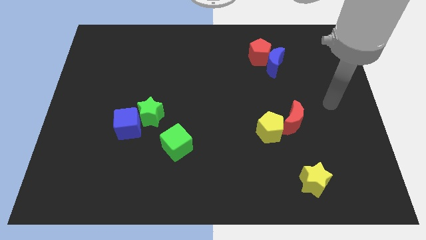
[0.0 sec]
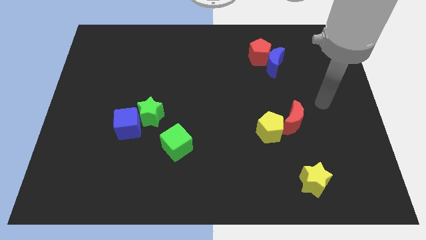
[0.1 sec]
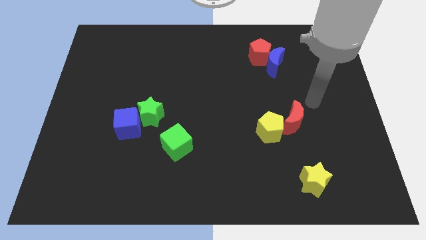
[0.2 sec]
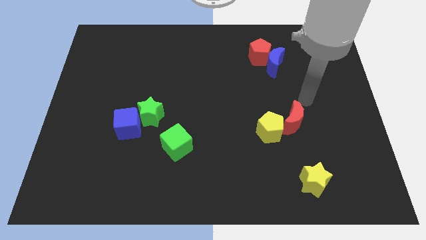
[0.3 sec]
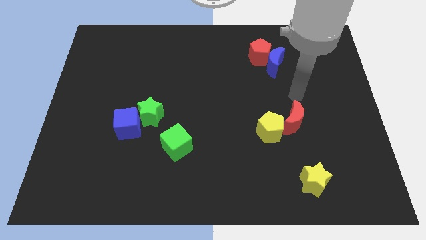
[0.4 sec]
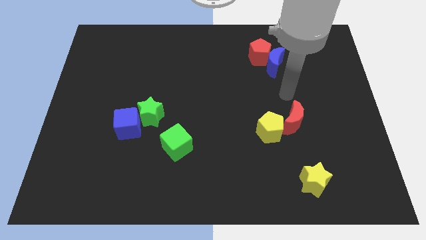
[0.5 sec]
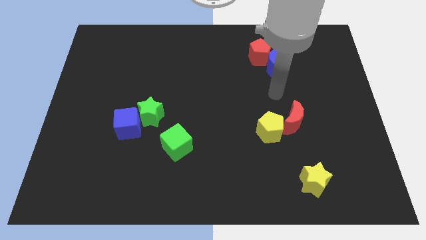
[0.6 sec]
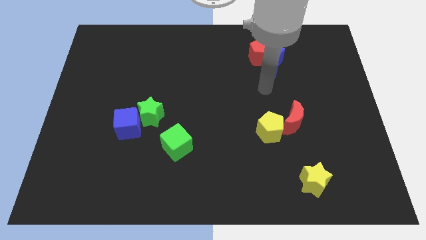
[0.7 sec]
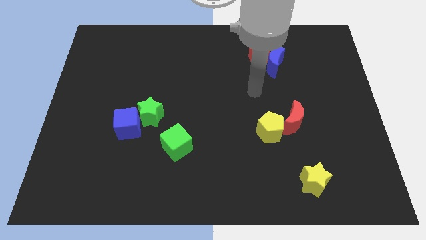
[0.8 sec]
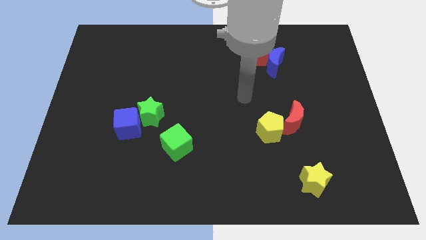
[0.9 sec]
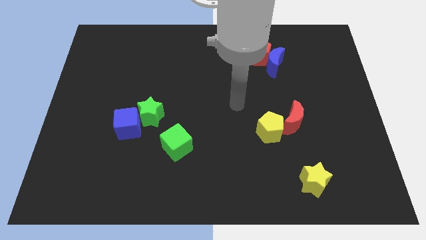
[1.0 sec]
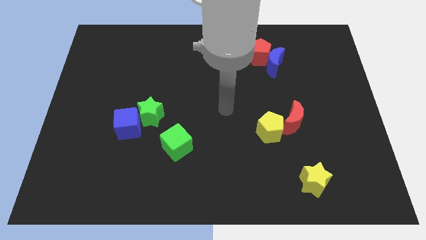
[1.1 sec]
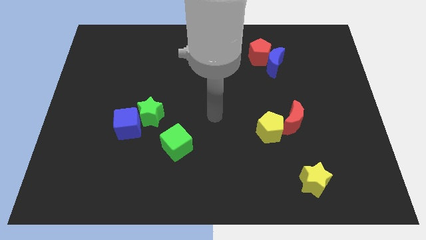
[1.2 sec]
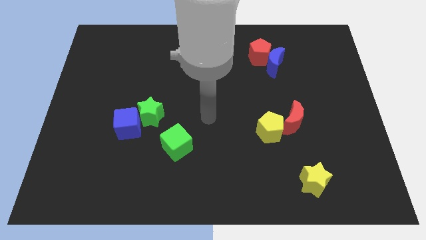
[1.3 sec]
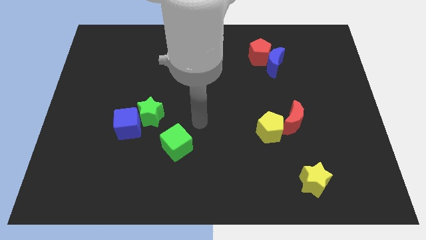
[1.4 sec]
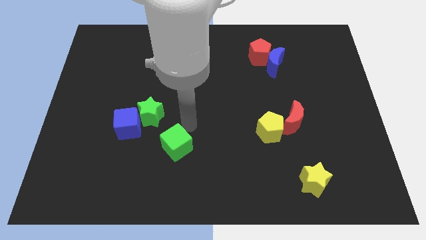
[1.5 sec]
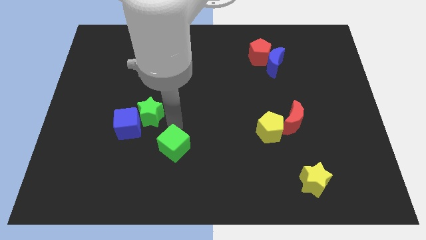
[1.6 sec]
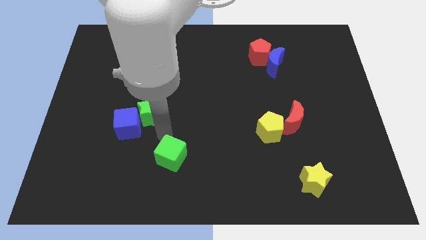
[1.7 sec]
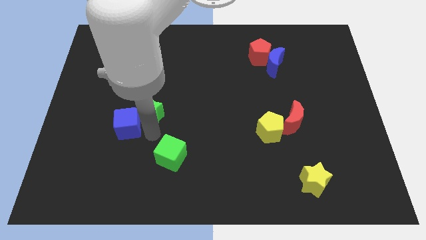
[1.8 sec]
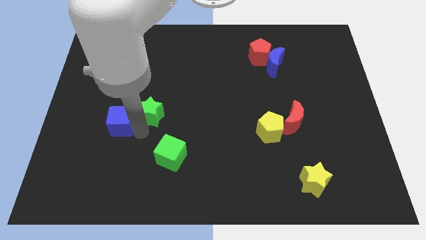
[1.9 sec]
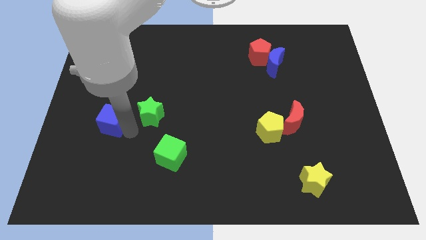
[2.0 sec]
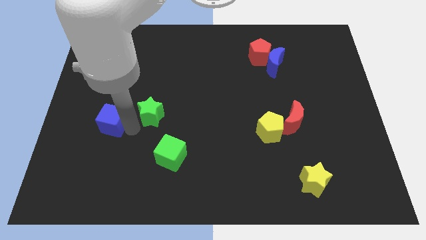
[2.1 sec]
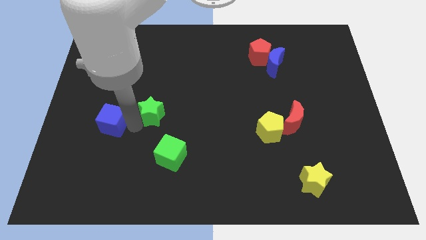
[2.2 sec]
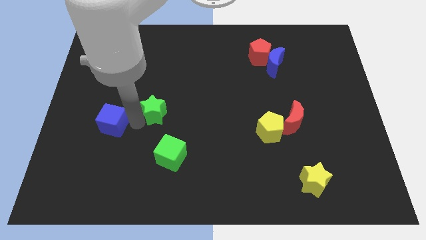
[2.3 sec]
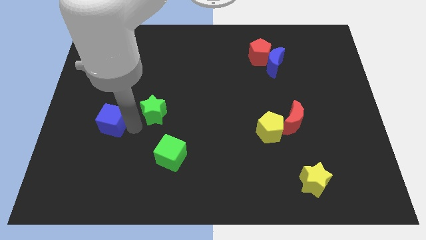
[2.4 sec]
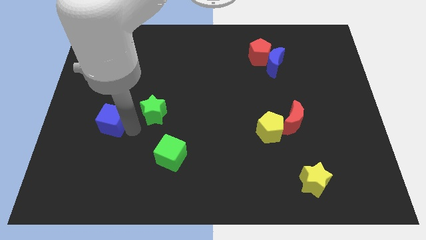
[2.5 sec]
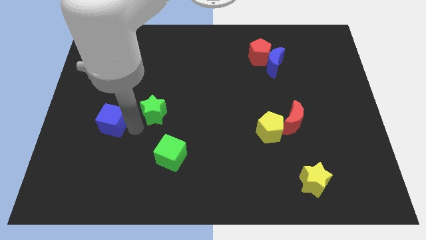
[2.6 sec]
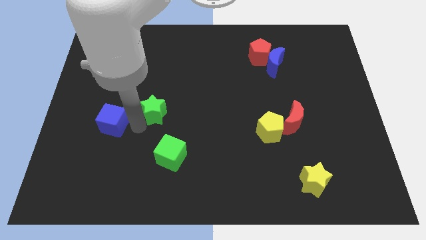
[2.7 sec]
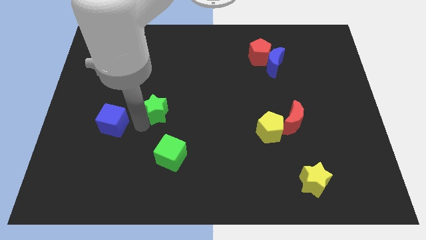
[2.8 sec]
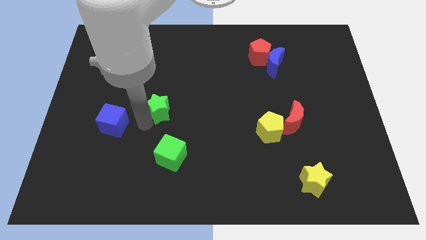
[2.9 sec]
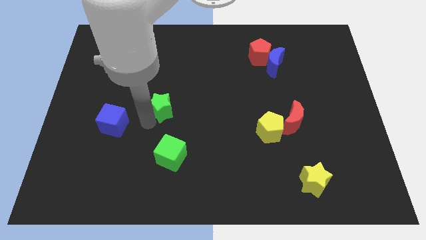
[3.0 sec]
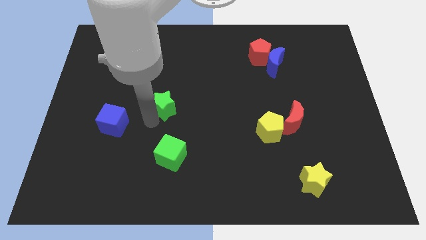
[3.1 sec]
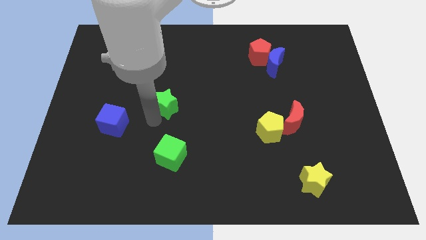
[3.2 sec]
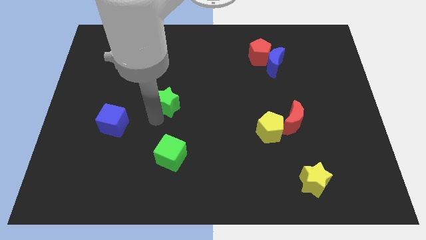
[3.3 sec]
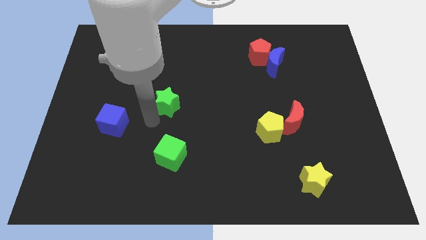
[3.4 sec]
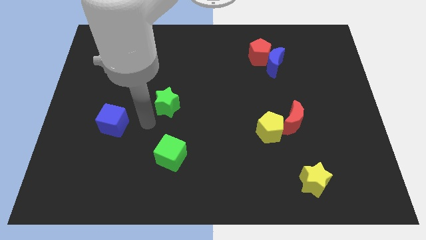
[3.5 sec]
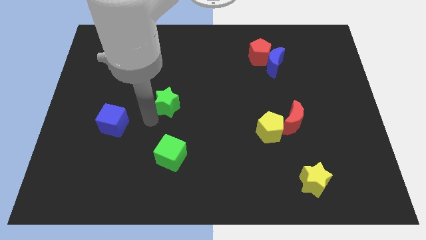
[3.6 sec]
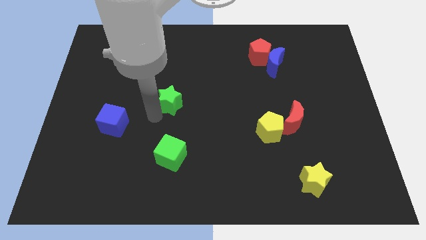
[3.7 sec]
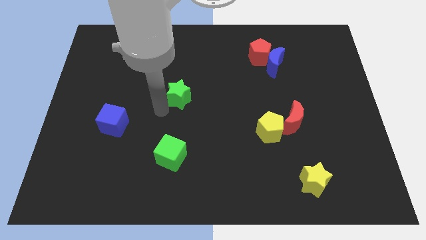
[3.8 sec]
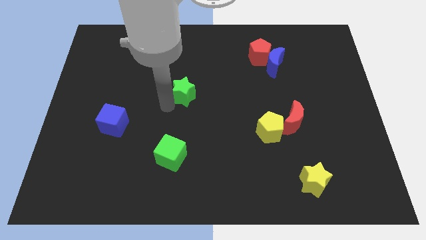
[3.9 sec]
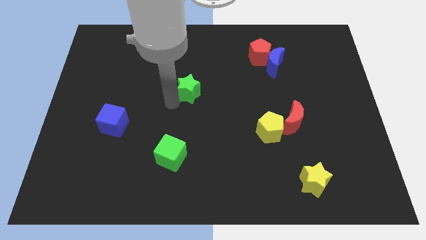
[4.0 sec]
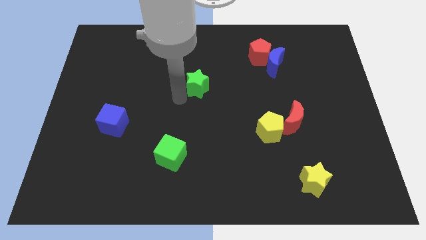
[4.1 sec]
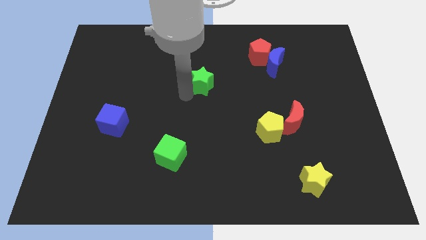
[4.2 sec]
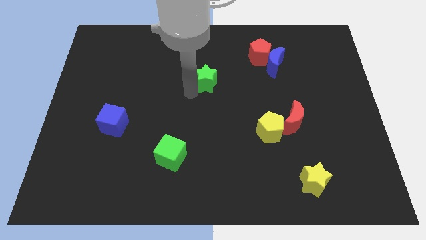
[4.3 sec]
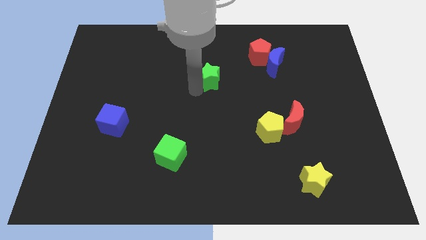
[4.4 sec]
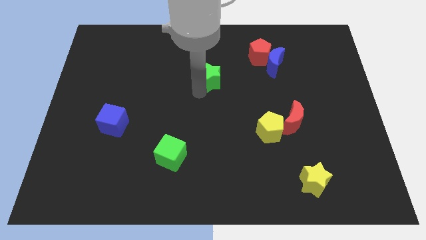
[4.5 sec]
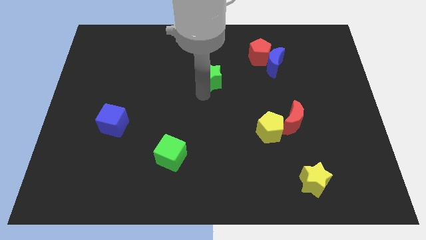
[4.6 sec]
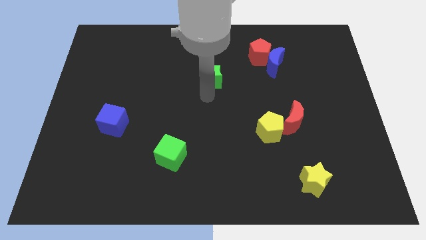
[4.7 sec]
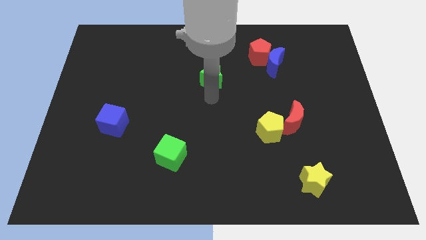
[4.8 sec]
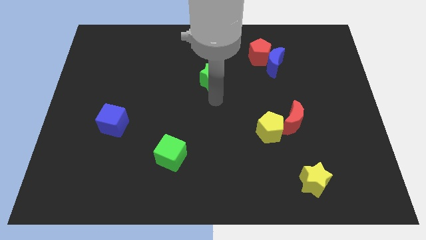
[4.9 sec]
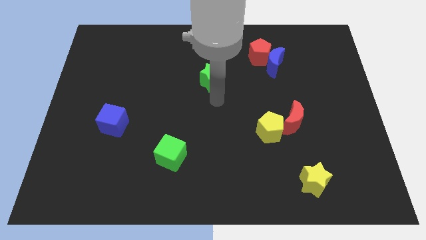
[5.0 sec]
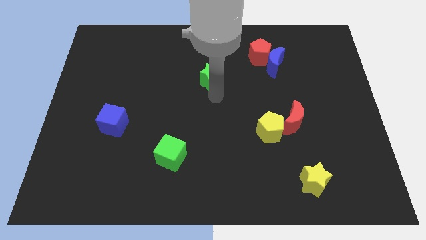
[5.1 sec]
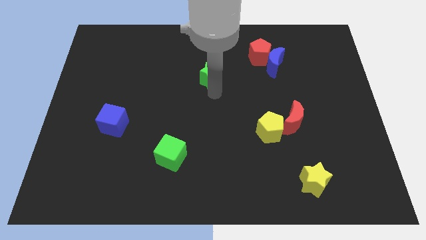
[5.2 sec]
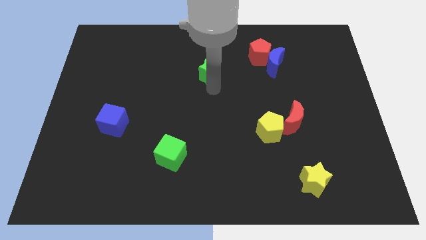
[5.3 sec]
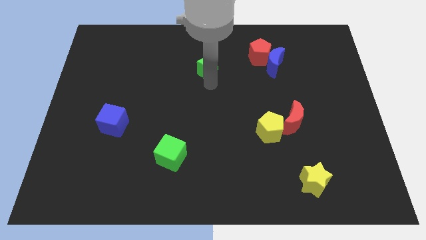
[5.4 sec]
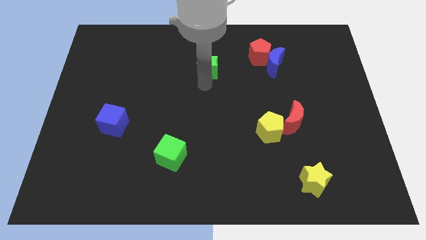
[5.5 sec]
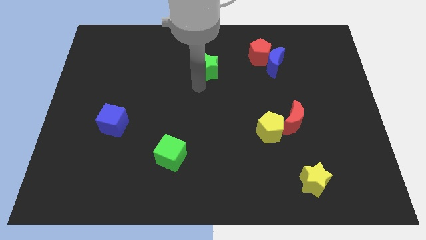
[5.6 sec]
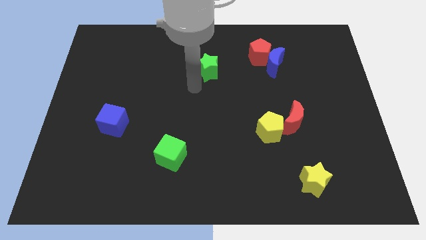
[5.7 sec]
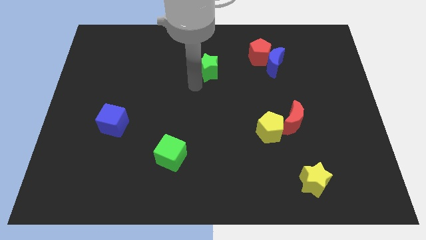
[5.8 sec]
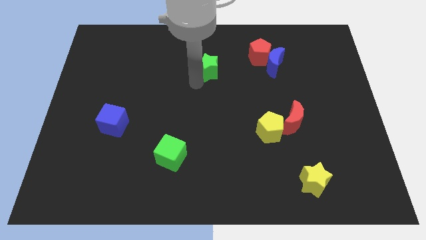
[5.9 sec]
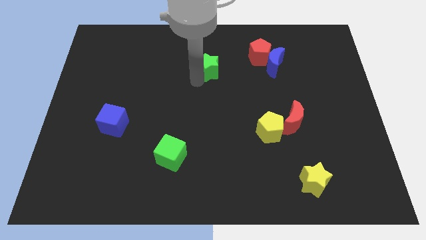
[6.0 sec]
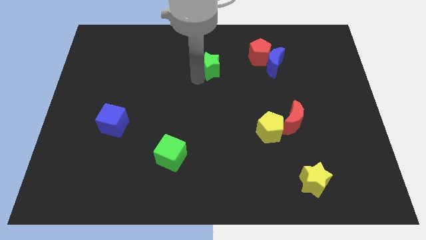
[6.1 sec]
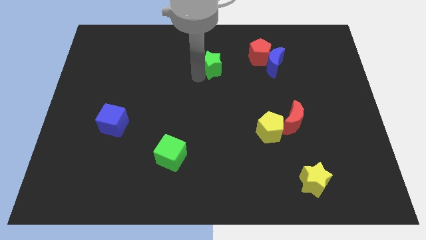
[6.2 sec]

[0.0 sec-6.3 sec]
move the green star left of the red pentagon

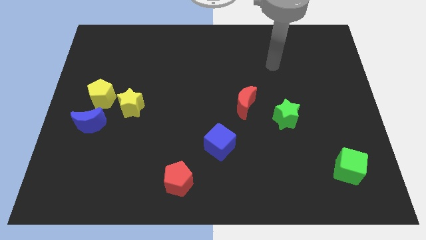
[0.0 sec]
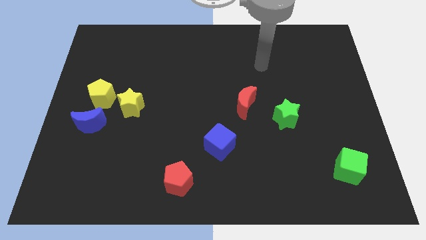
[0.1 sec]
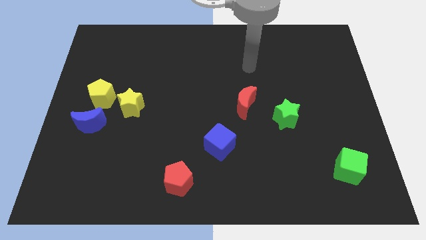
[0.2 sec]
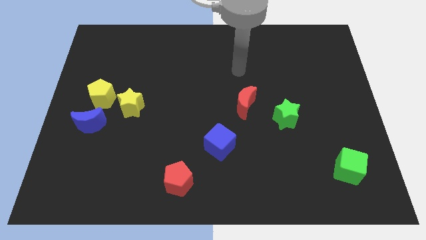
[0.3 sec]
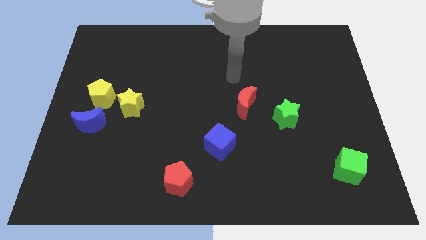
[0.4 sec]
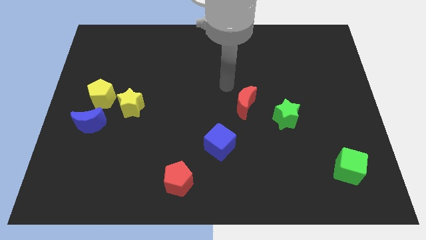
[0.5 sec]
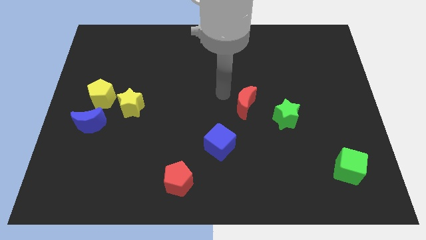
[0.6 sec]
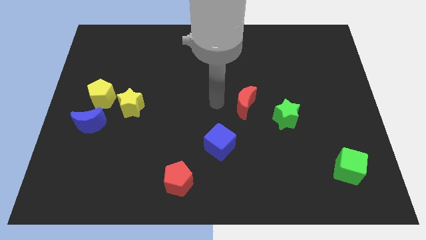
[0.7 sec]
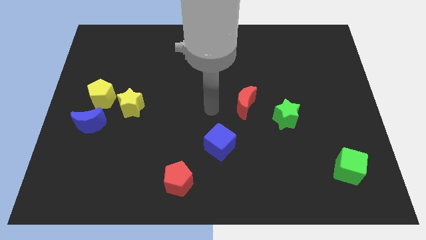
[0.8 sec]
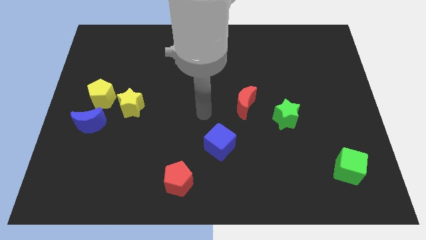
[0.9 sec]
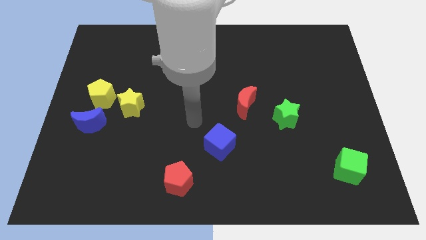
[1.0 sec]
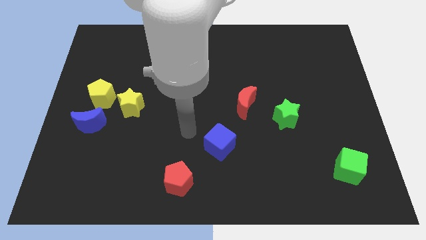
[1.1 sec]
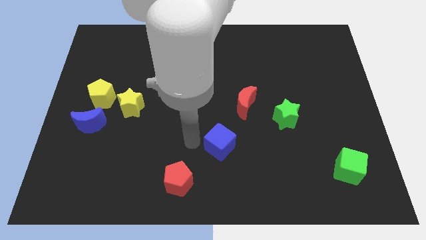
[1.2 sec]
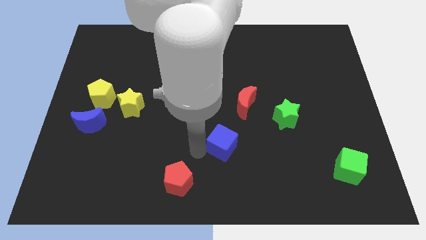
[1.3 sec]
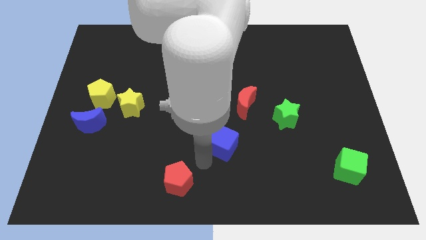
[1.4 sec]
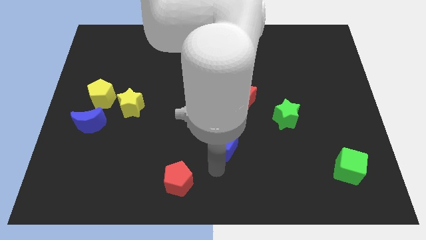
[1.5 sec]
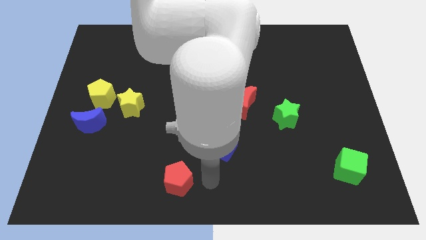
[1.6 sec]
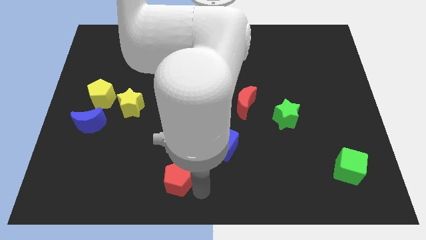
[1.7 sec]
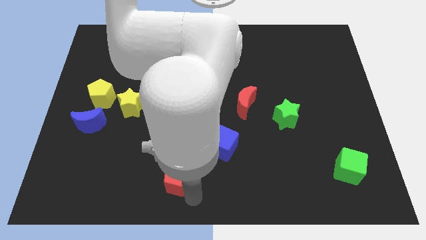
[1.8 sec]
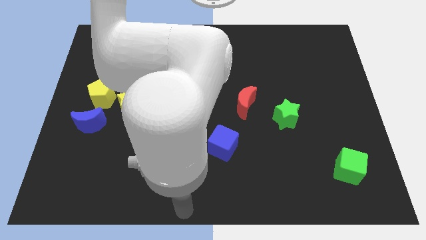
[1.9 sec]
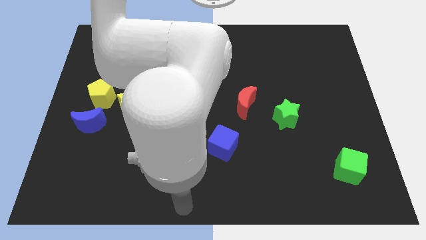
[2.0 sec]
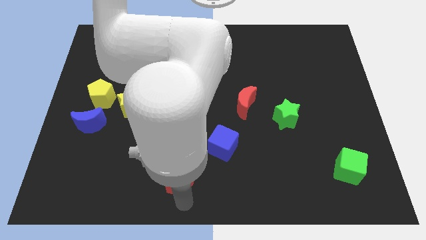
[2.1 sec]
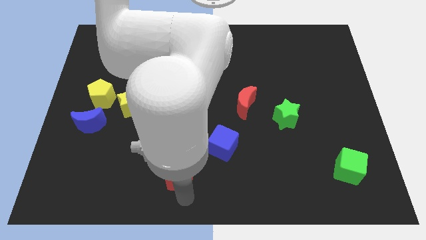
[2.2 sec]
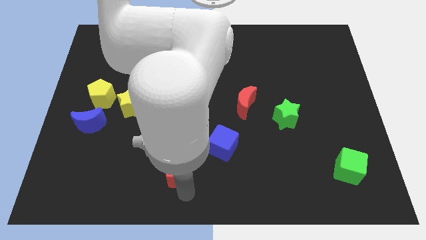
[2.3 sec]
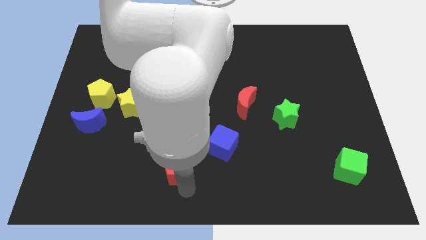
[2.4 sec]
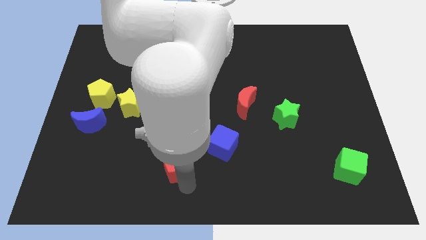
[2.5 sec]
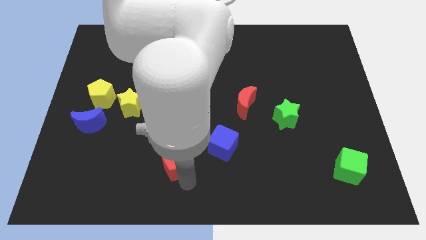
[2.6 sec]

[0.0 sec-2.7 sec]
slide the red pentagon left of the blue cube
